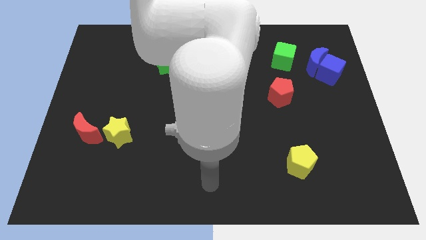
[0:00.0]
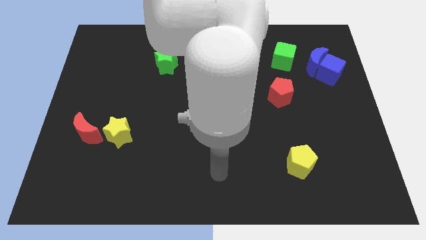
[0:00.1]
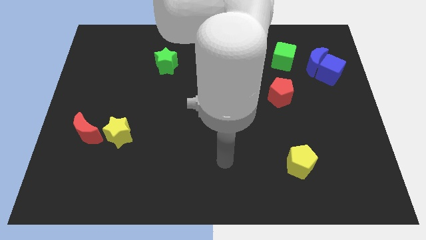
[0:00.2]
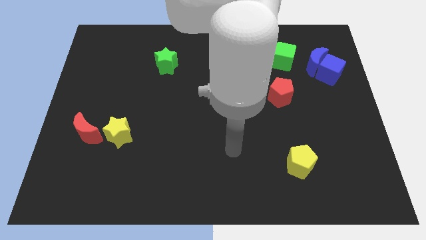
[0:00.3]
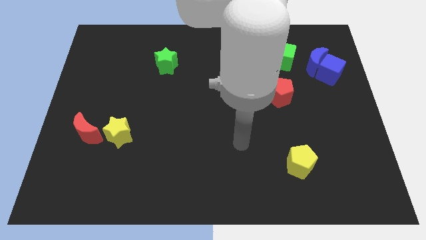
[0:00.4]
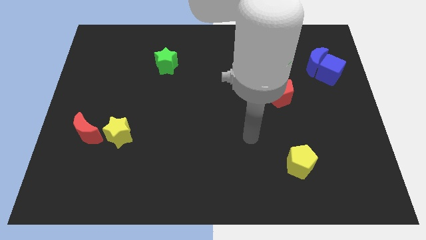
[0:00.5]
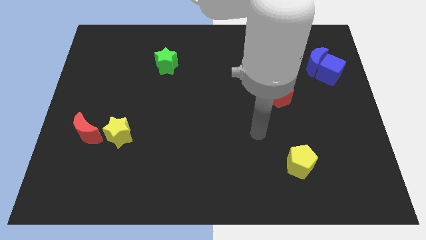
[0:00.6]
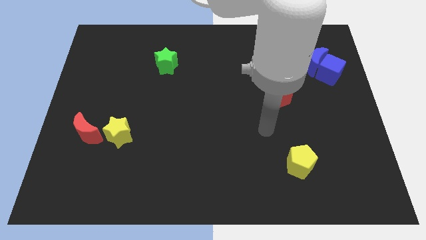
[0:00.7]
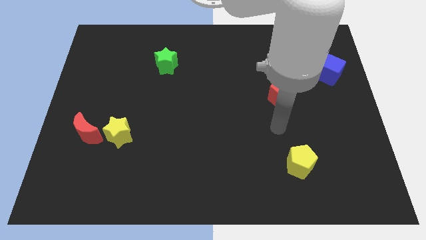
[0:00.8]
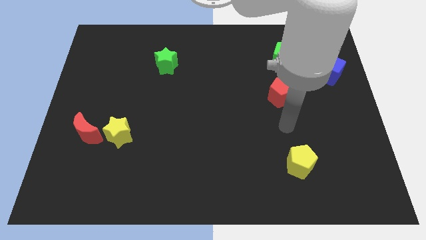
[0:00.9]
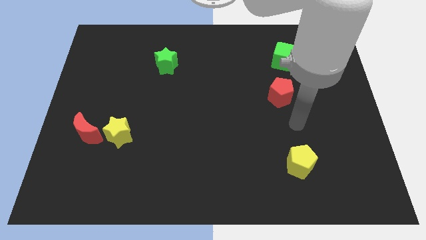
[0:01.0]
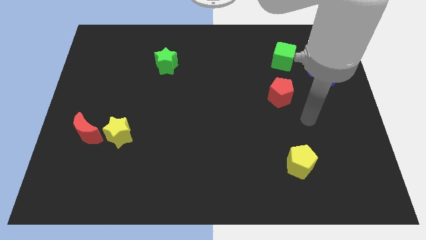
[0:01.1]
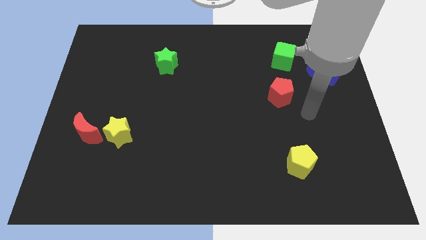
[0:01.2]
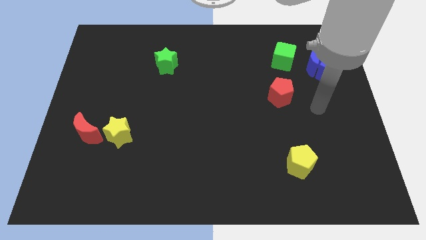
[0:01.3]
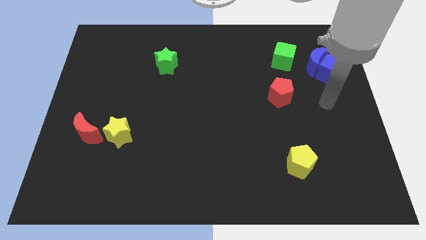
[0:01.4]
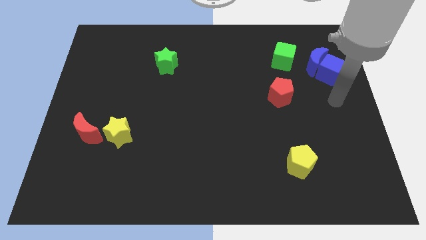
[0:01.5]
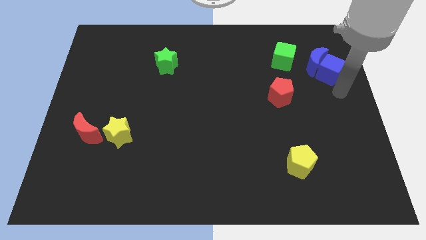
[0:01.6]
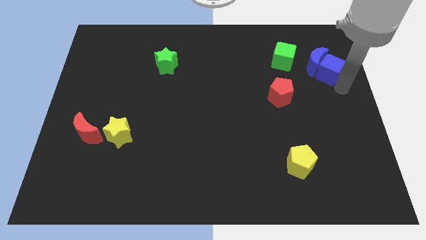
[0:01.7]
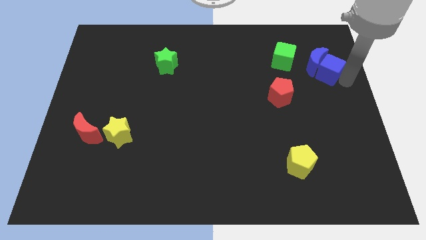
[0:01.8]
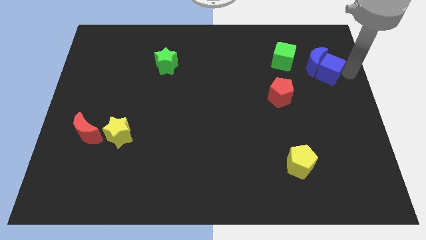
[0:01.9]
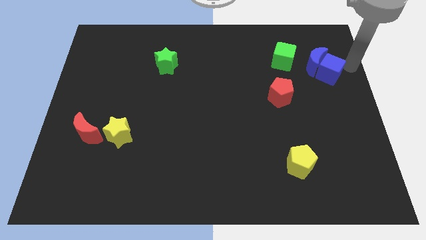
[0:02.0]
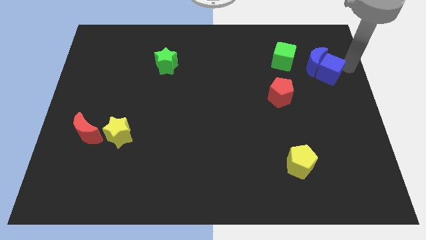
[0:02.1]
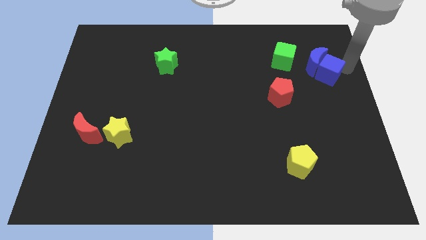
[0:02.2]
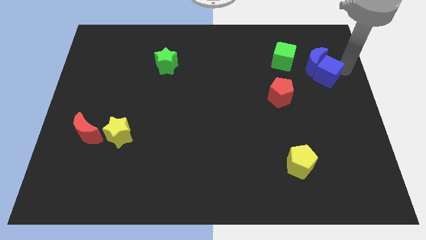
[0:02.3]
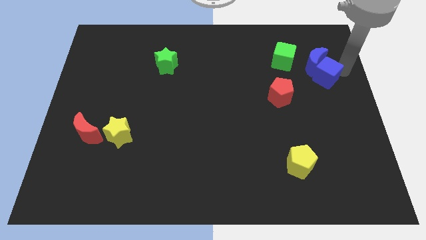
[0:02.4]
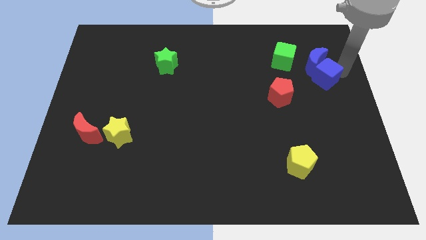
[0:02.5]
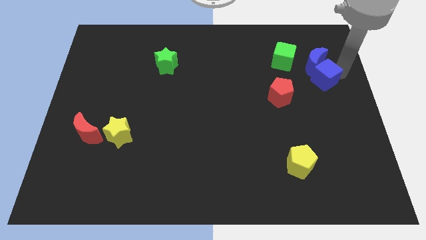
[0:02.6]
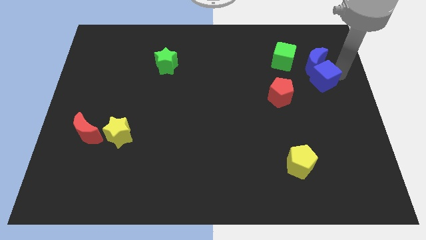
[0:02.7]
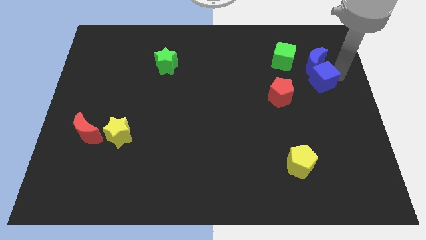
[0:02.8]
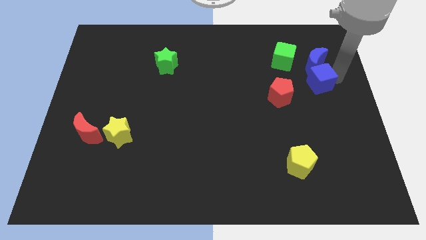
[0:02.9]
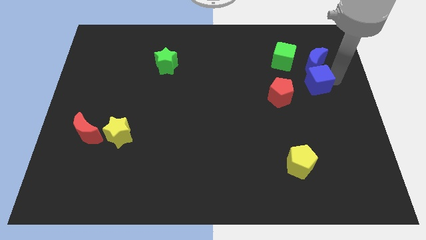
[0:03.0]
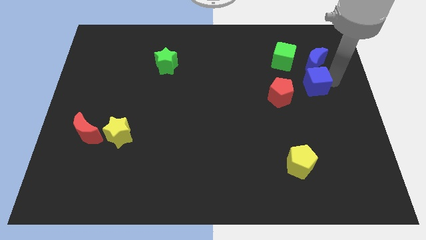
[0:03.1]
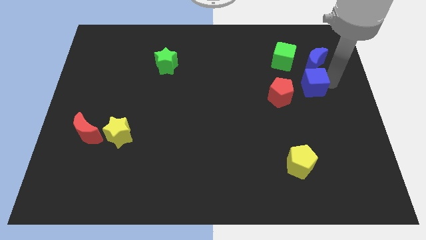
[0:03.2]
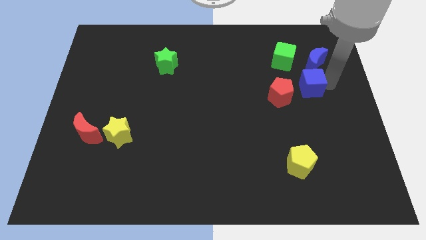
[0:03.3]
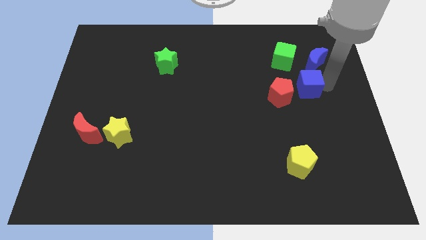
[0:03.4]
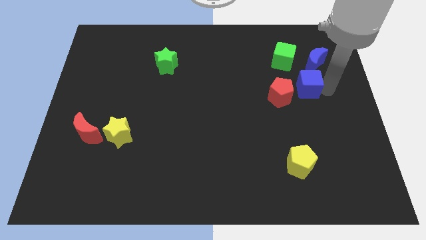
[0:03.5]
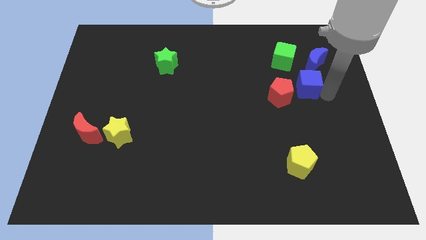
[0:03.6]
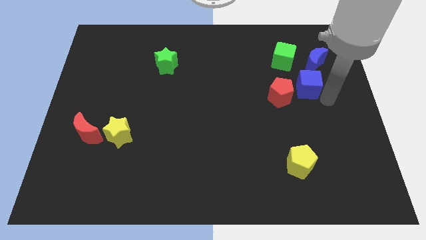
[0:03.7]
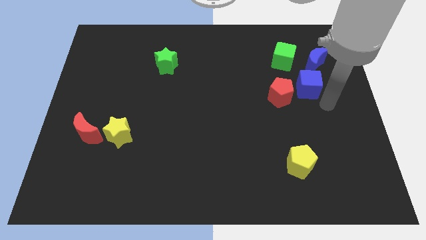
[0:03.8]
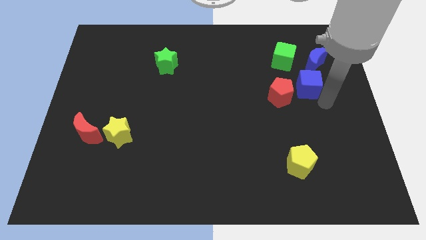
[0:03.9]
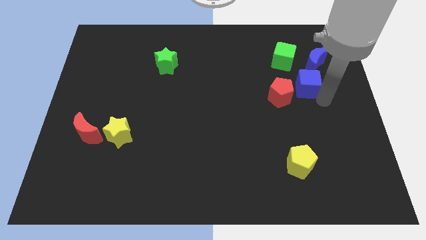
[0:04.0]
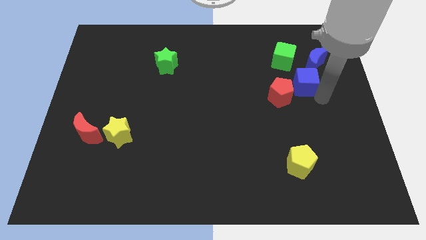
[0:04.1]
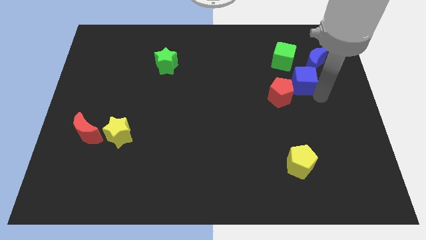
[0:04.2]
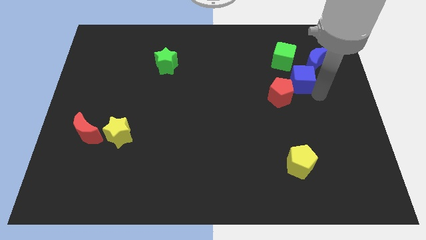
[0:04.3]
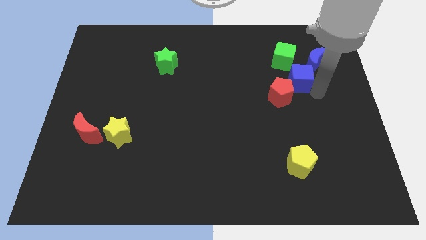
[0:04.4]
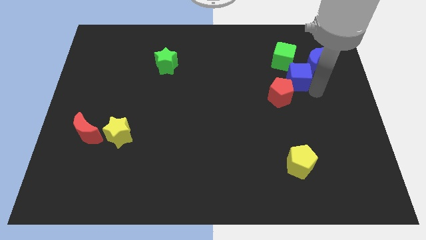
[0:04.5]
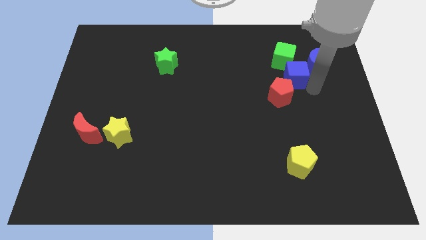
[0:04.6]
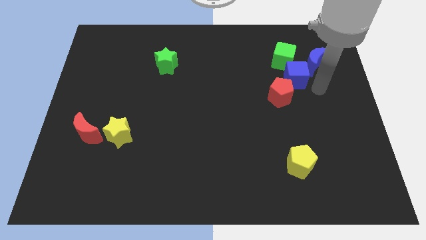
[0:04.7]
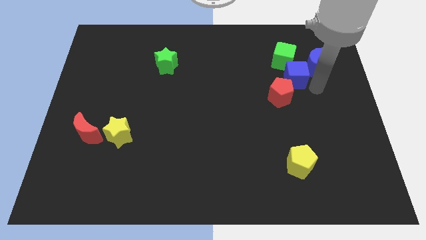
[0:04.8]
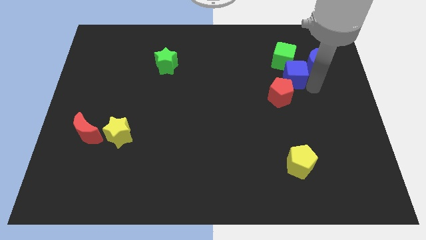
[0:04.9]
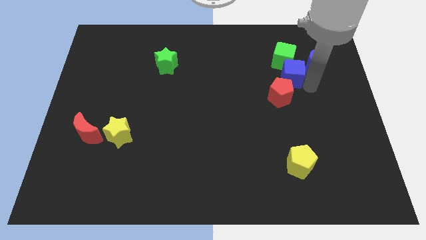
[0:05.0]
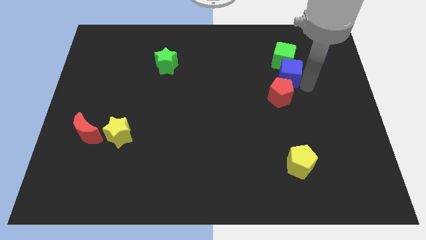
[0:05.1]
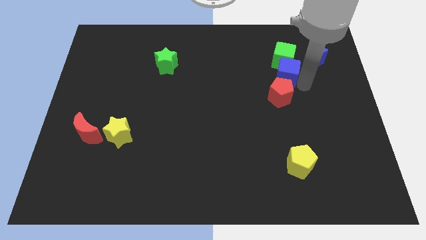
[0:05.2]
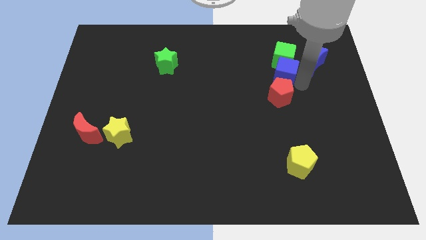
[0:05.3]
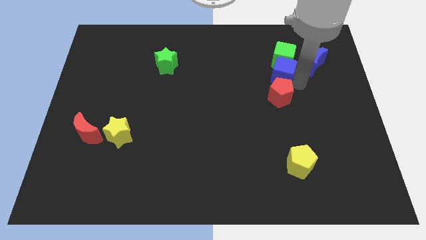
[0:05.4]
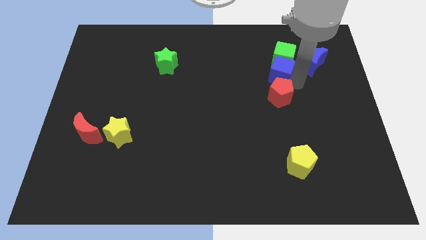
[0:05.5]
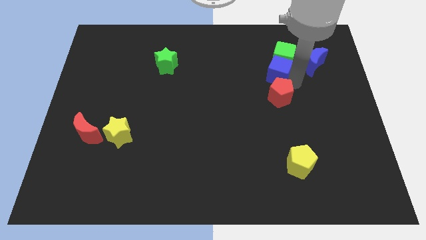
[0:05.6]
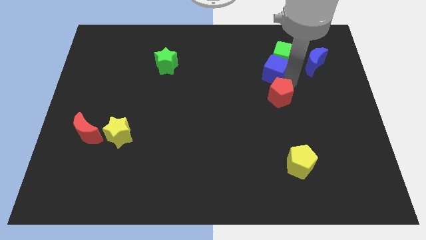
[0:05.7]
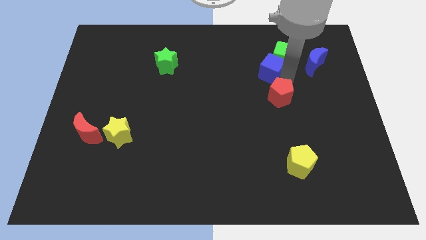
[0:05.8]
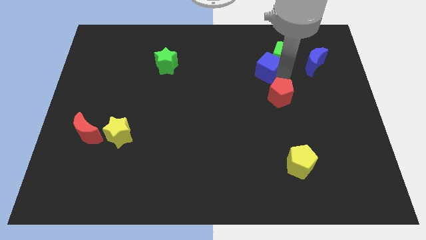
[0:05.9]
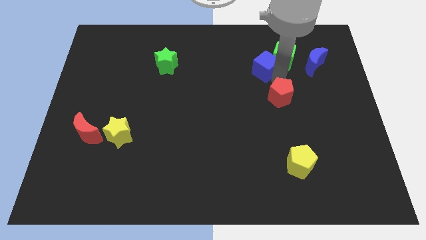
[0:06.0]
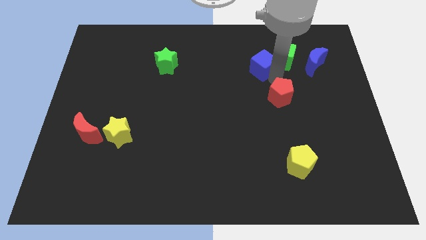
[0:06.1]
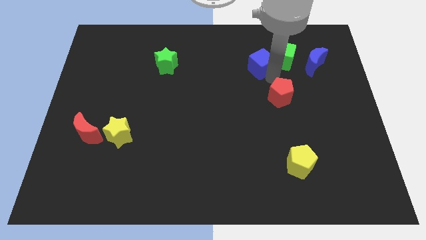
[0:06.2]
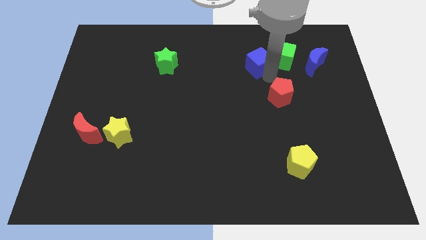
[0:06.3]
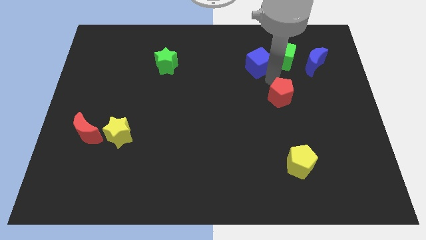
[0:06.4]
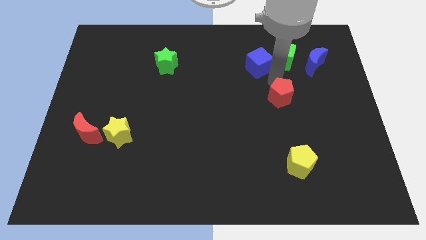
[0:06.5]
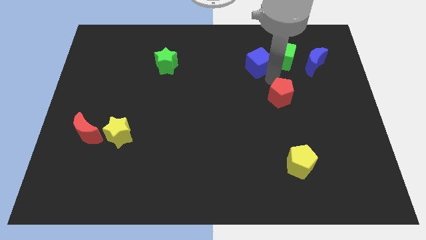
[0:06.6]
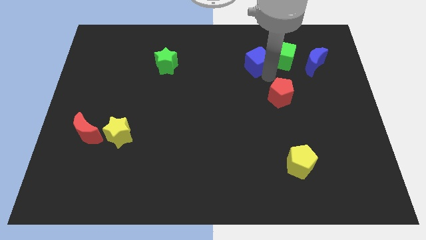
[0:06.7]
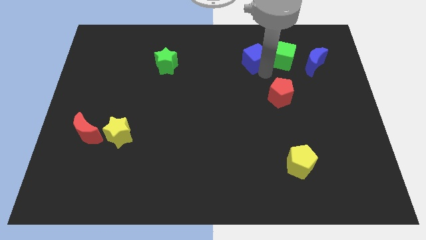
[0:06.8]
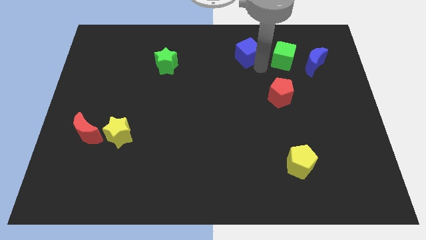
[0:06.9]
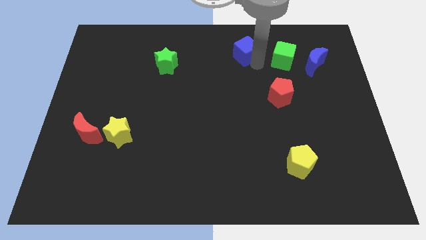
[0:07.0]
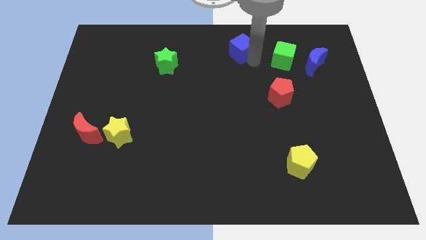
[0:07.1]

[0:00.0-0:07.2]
move the blue cube to the towards your base

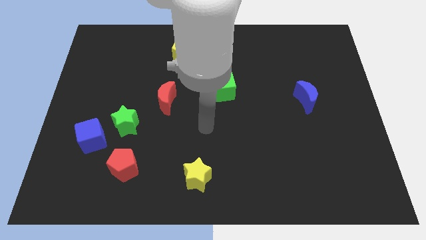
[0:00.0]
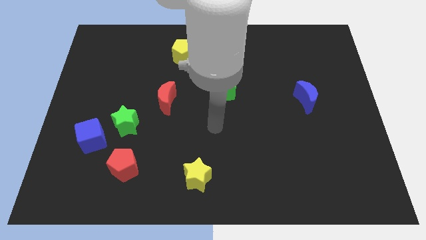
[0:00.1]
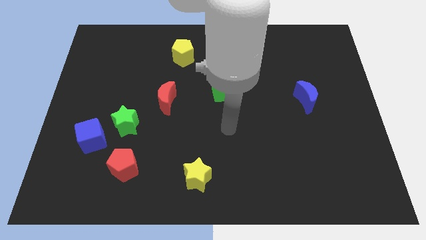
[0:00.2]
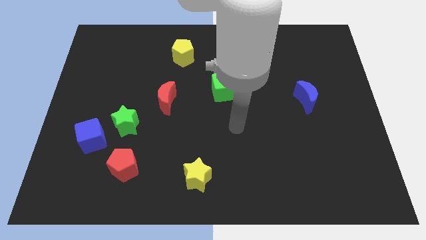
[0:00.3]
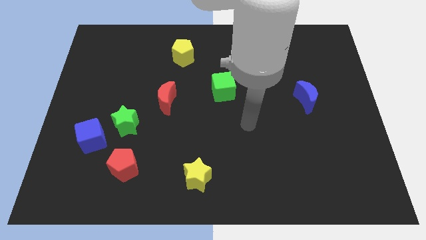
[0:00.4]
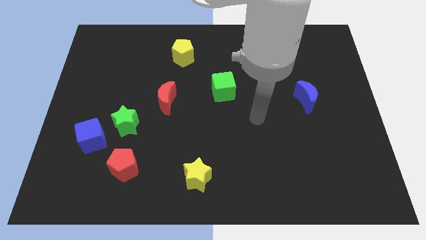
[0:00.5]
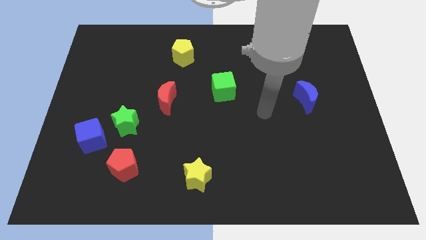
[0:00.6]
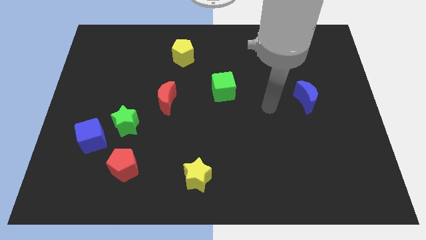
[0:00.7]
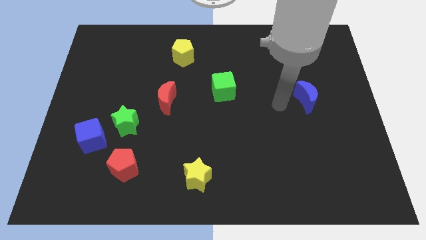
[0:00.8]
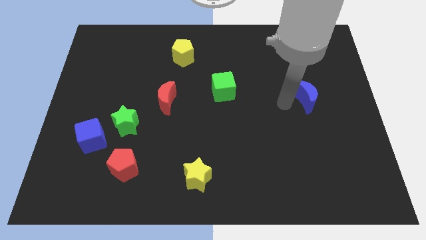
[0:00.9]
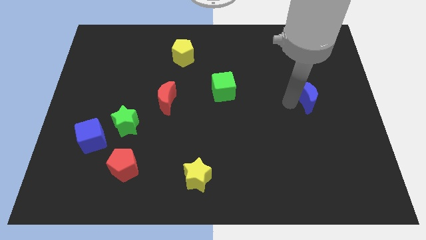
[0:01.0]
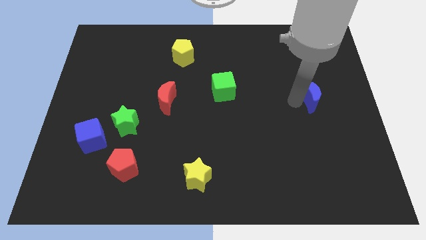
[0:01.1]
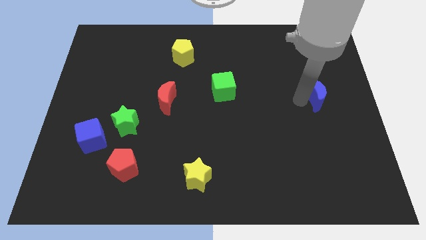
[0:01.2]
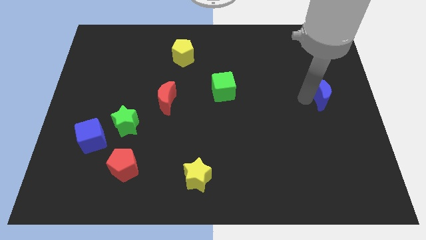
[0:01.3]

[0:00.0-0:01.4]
slide the blue moon to the right side of the board
